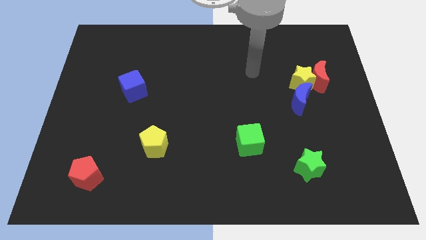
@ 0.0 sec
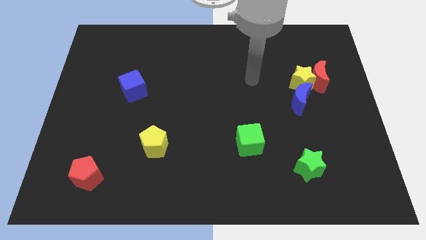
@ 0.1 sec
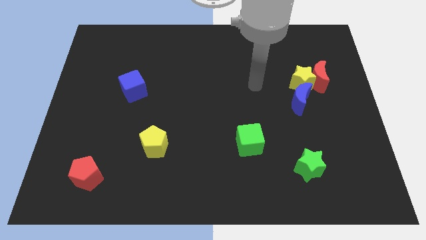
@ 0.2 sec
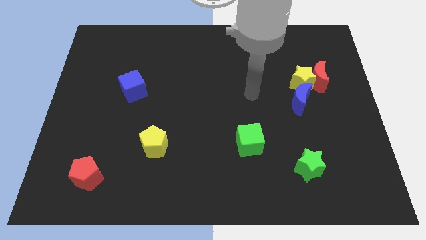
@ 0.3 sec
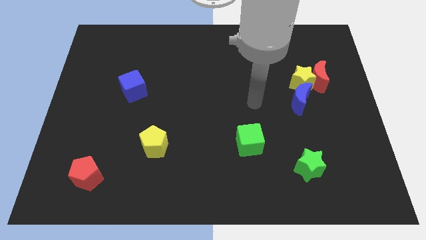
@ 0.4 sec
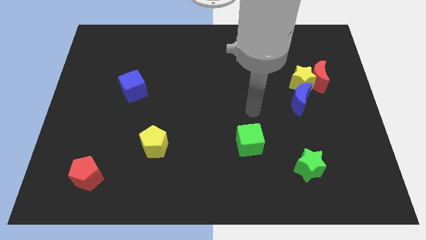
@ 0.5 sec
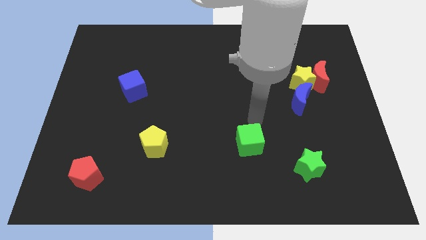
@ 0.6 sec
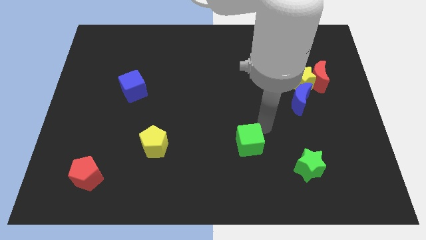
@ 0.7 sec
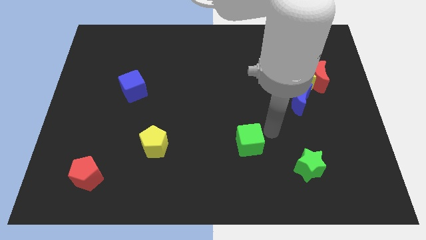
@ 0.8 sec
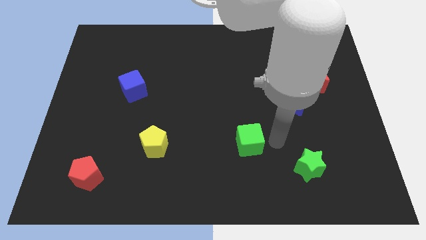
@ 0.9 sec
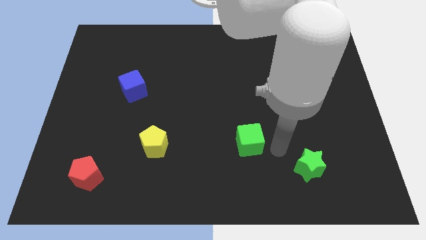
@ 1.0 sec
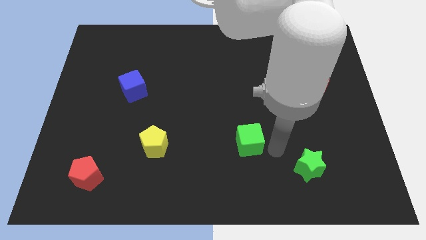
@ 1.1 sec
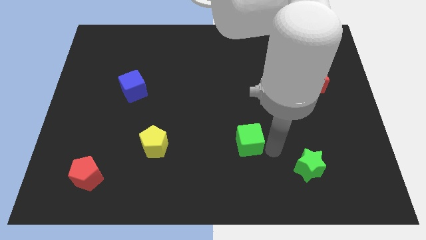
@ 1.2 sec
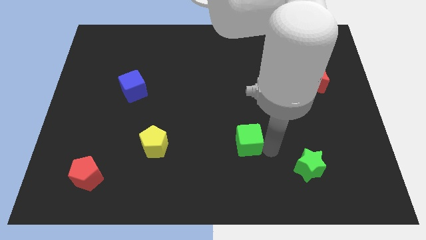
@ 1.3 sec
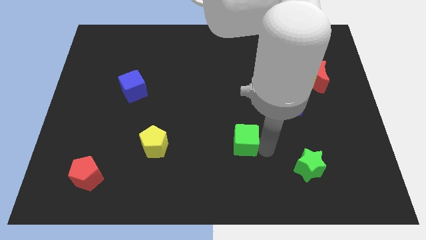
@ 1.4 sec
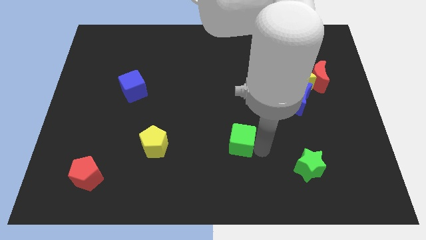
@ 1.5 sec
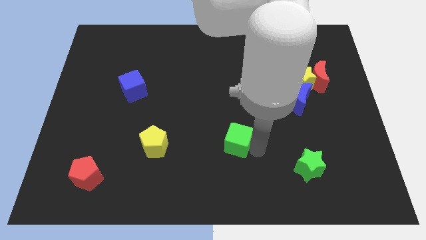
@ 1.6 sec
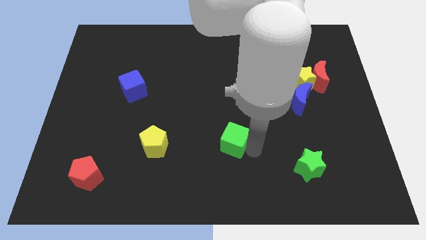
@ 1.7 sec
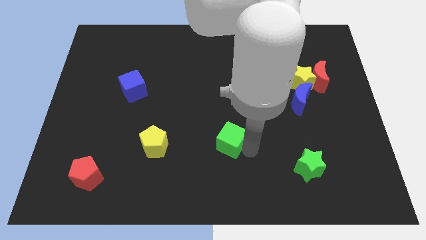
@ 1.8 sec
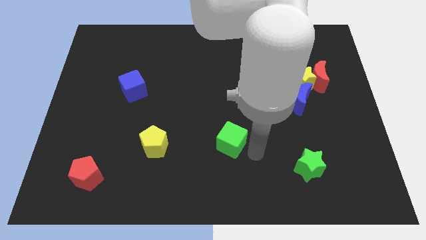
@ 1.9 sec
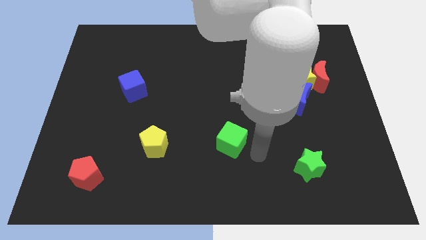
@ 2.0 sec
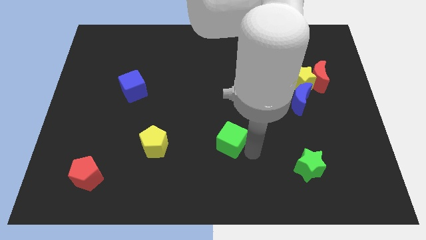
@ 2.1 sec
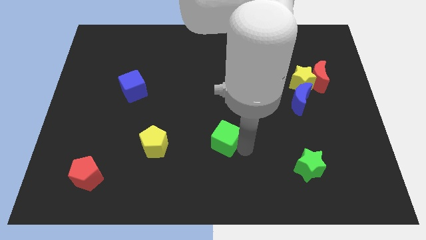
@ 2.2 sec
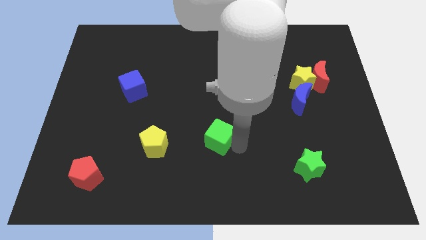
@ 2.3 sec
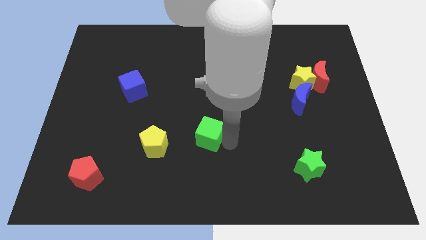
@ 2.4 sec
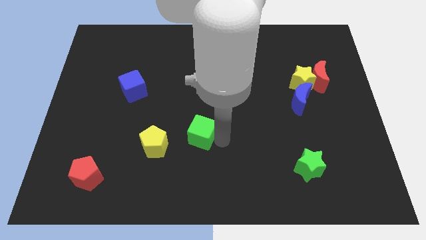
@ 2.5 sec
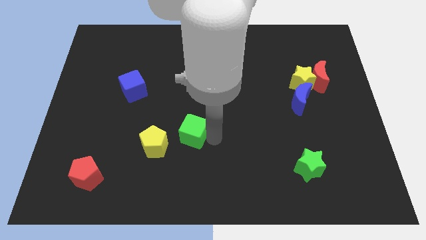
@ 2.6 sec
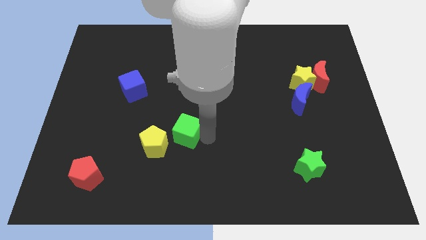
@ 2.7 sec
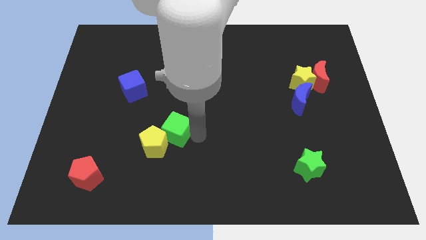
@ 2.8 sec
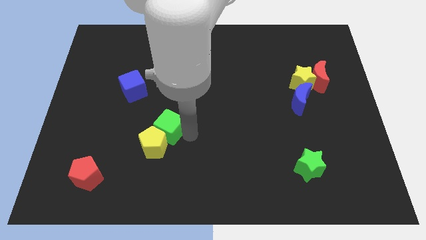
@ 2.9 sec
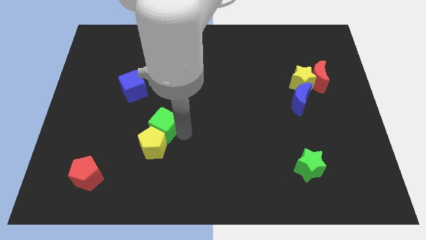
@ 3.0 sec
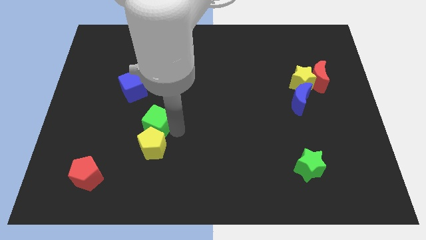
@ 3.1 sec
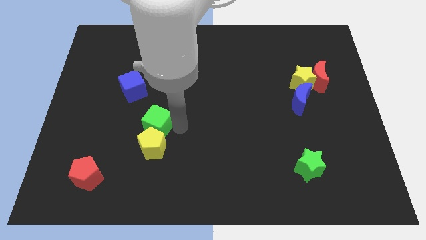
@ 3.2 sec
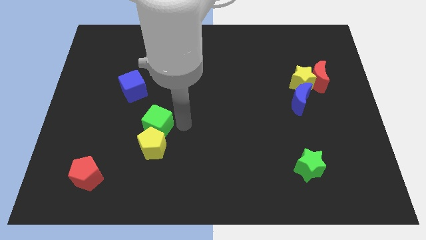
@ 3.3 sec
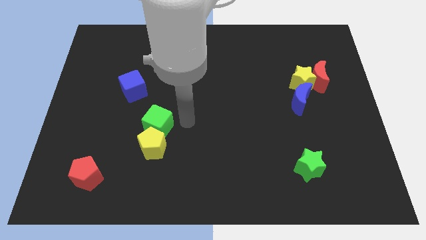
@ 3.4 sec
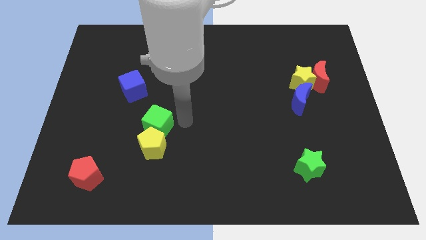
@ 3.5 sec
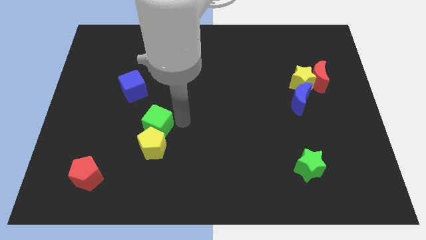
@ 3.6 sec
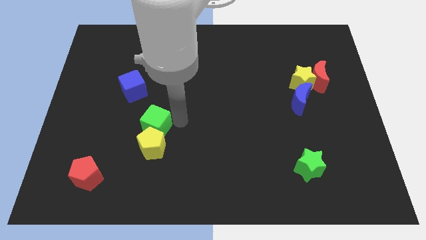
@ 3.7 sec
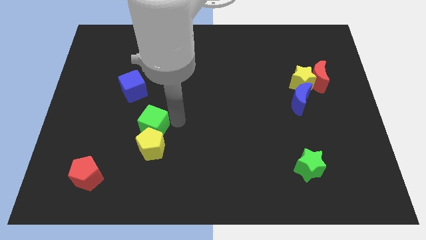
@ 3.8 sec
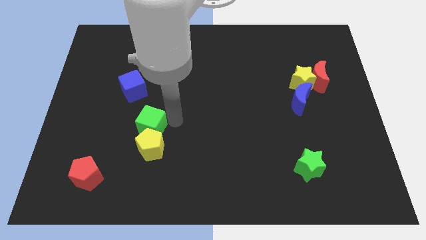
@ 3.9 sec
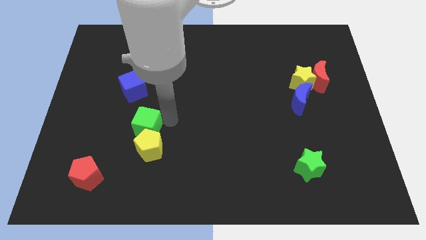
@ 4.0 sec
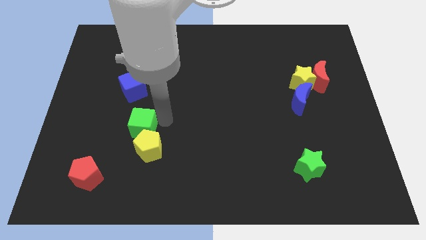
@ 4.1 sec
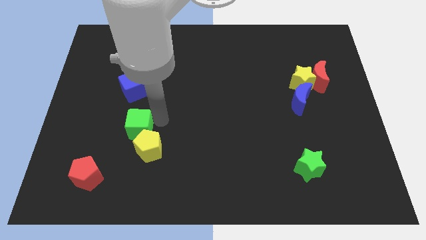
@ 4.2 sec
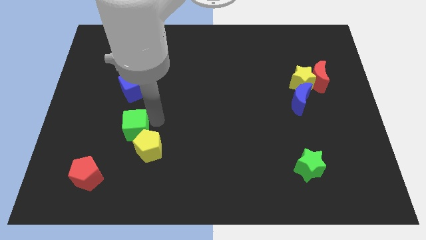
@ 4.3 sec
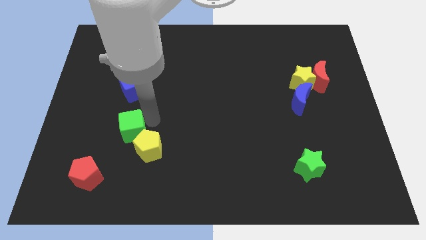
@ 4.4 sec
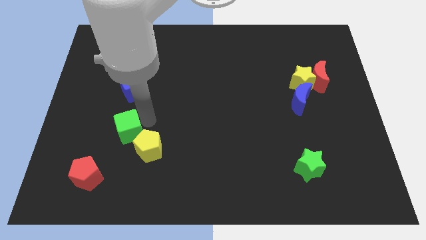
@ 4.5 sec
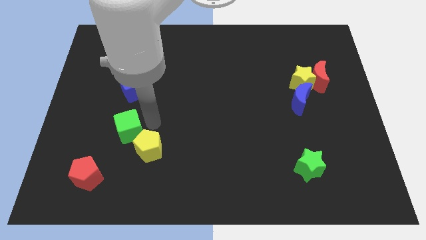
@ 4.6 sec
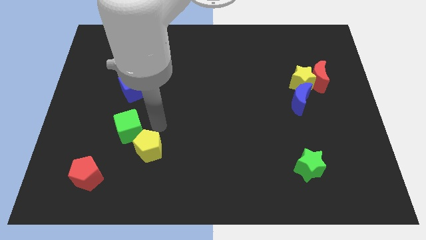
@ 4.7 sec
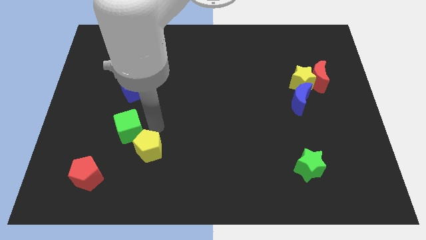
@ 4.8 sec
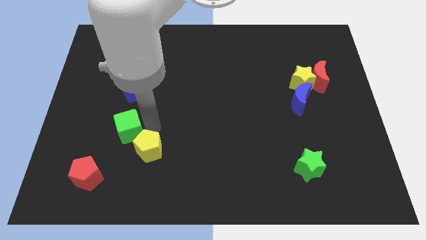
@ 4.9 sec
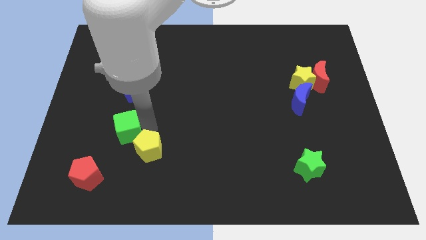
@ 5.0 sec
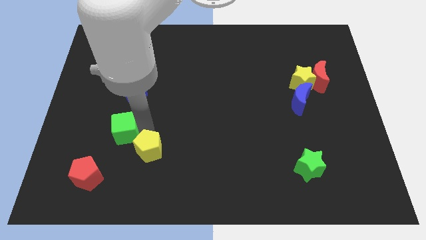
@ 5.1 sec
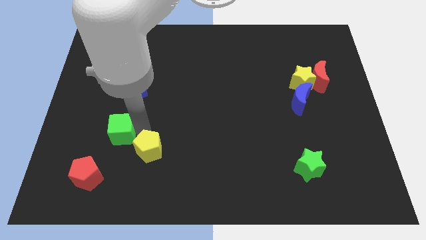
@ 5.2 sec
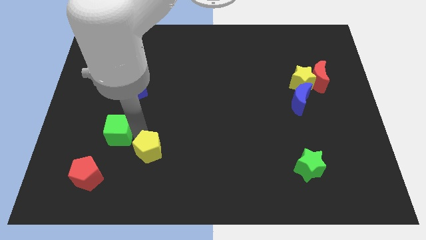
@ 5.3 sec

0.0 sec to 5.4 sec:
push the green cube to the top side of the red pentagon

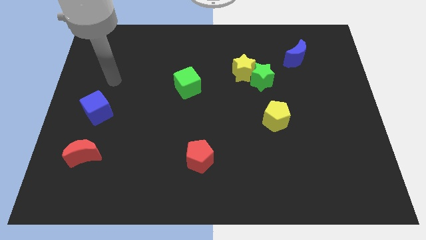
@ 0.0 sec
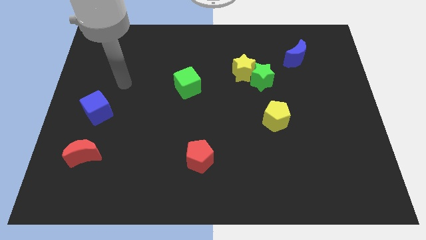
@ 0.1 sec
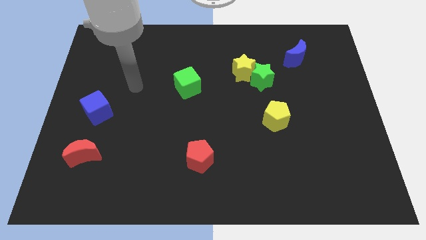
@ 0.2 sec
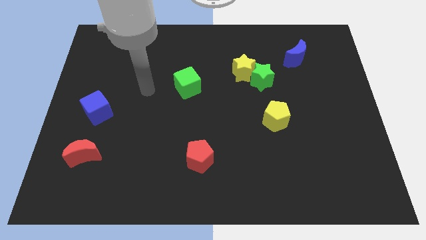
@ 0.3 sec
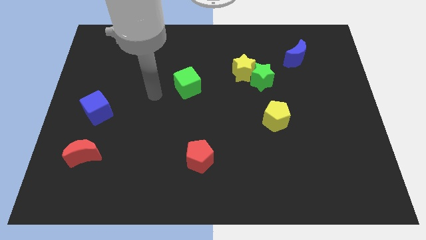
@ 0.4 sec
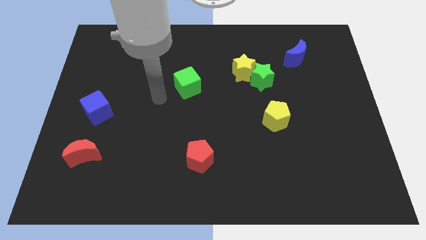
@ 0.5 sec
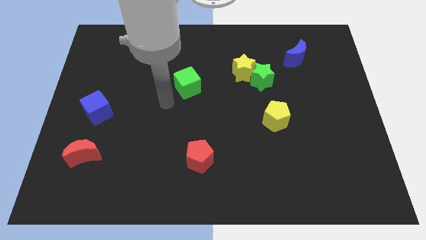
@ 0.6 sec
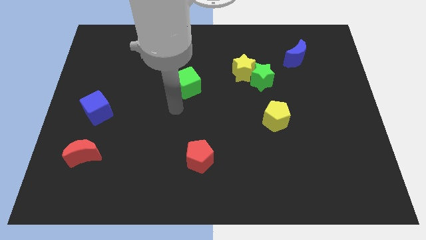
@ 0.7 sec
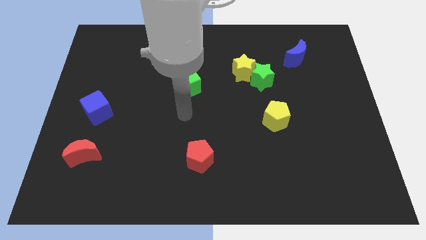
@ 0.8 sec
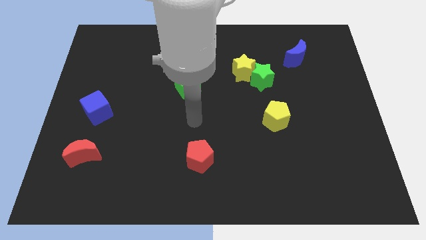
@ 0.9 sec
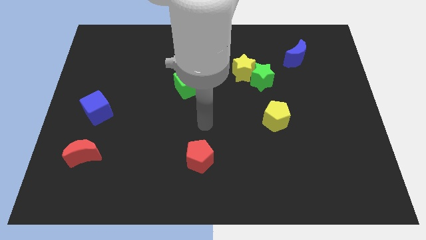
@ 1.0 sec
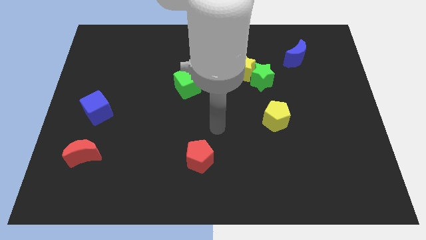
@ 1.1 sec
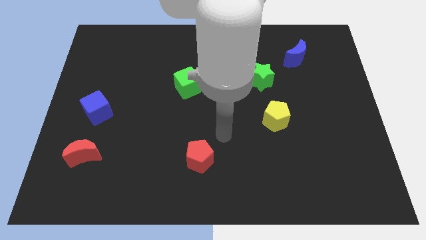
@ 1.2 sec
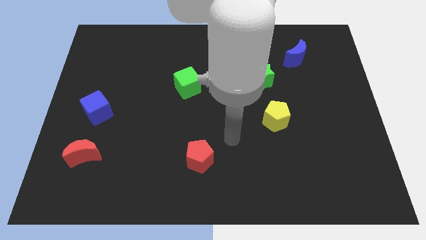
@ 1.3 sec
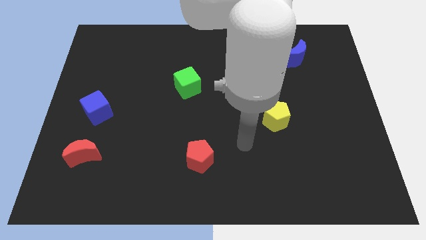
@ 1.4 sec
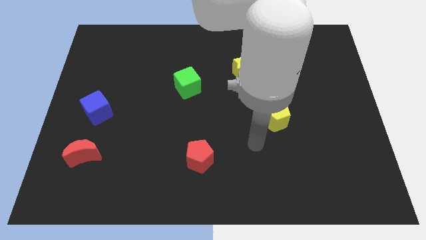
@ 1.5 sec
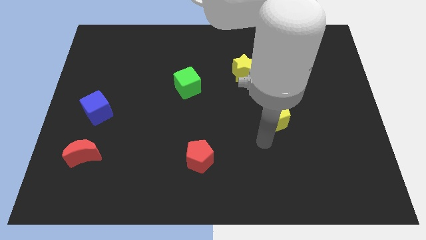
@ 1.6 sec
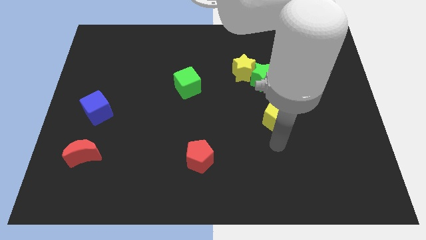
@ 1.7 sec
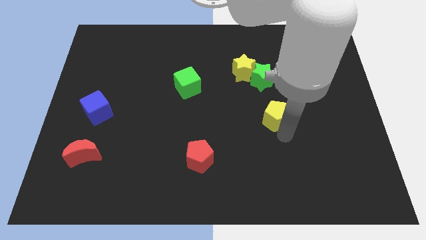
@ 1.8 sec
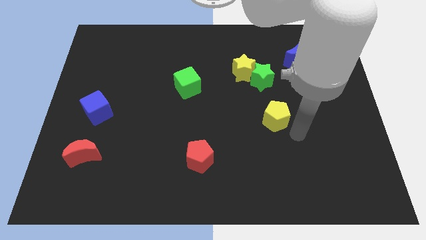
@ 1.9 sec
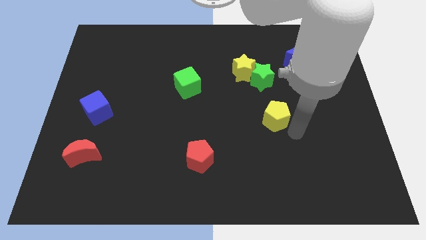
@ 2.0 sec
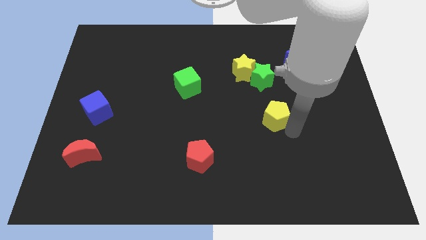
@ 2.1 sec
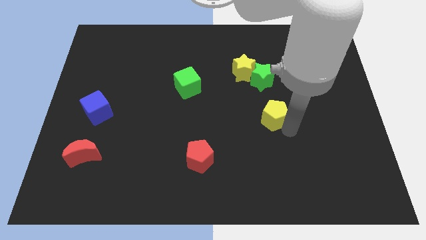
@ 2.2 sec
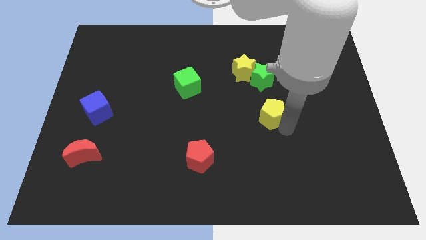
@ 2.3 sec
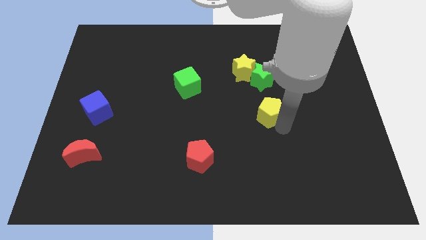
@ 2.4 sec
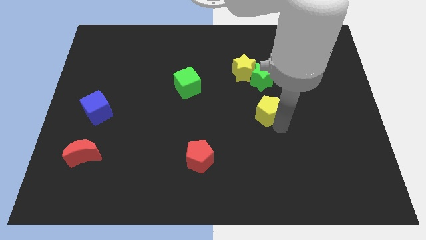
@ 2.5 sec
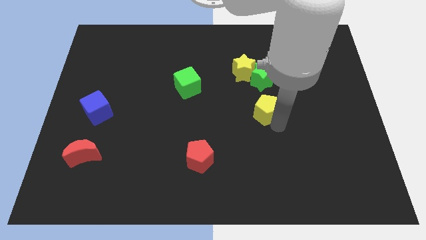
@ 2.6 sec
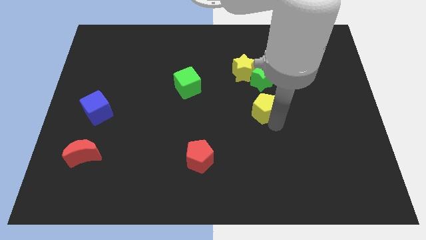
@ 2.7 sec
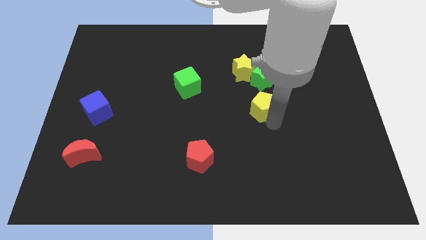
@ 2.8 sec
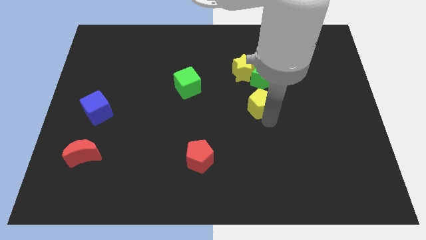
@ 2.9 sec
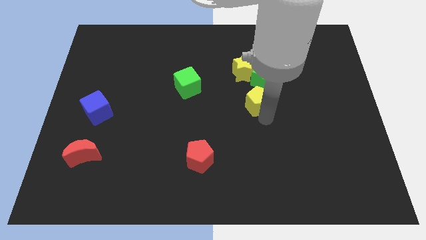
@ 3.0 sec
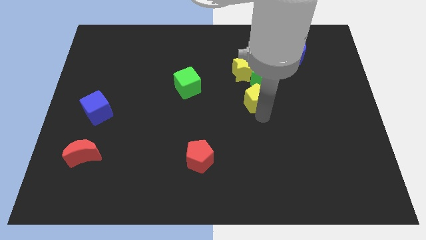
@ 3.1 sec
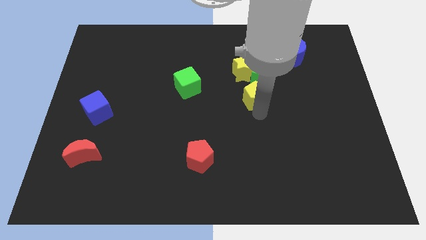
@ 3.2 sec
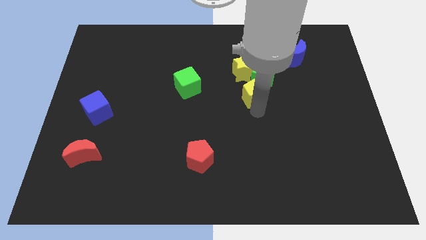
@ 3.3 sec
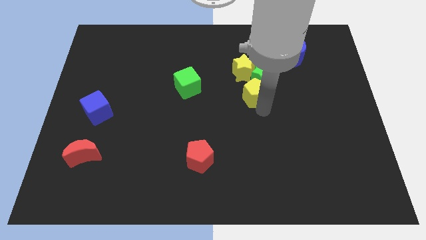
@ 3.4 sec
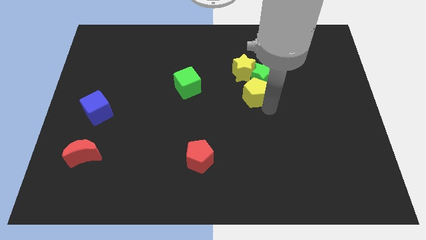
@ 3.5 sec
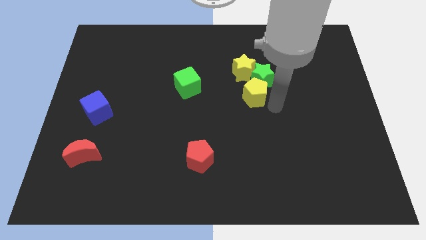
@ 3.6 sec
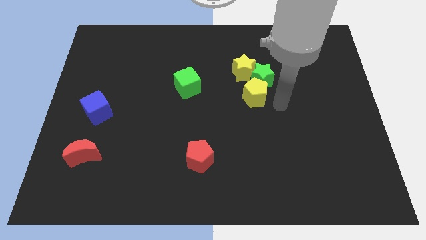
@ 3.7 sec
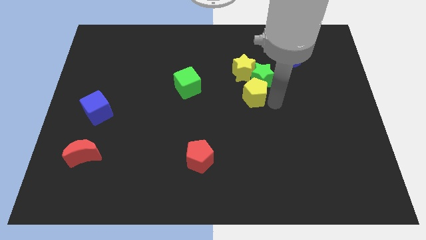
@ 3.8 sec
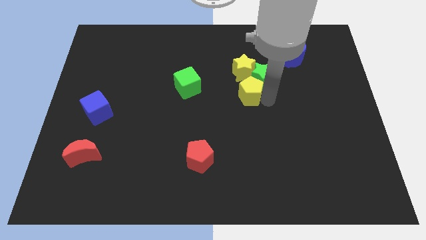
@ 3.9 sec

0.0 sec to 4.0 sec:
move the yellow pentagon just right of the green cube
